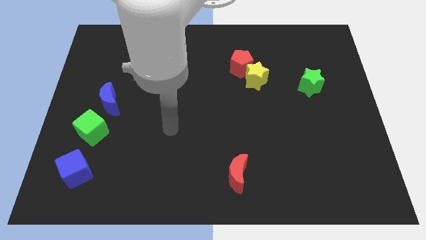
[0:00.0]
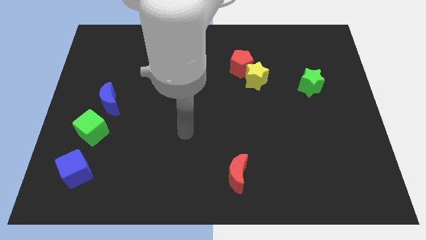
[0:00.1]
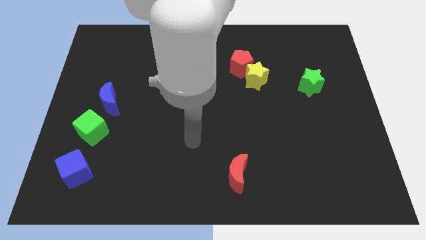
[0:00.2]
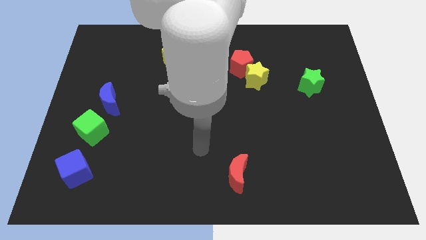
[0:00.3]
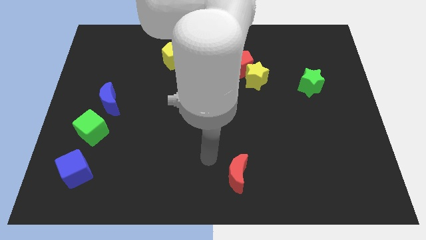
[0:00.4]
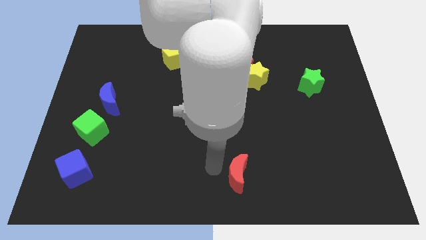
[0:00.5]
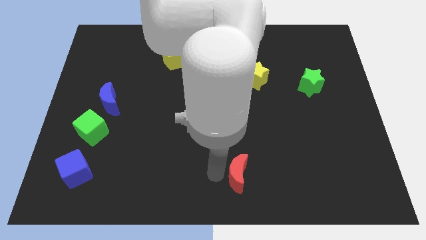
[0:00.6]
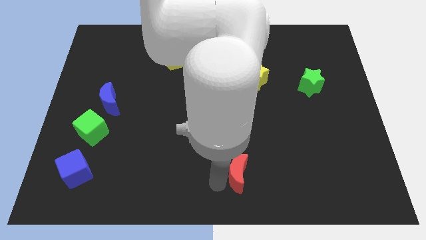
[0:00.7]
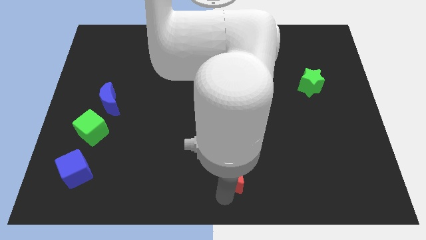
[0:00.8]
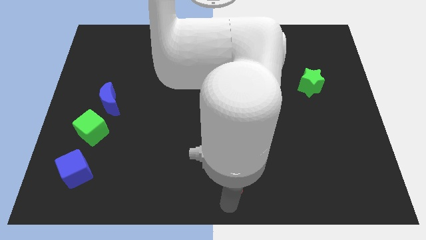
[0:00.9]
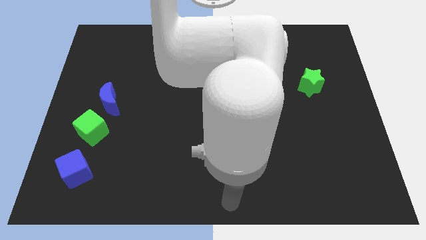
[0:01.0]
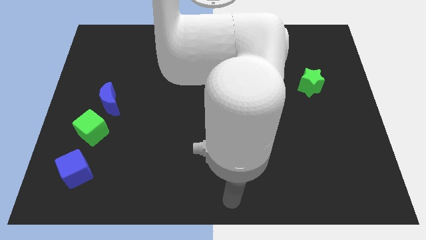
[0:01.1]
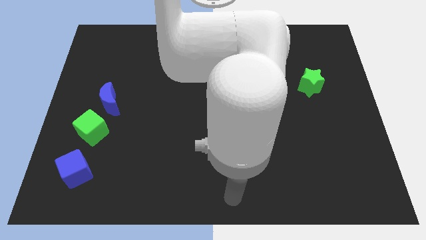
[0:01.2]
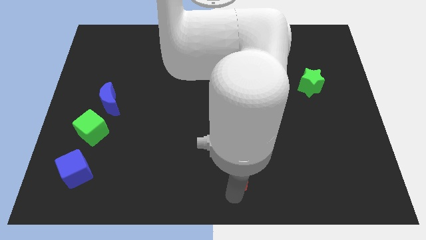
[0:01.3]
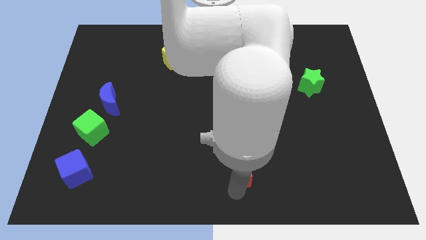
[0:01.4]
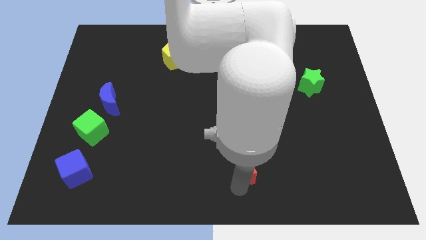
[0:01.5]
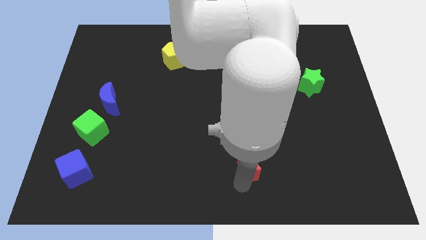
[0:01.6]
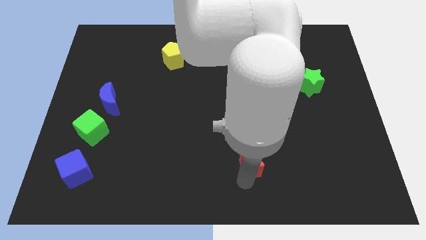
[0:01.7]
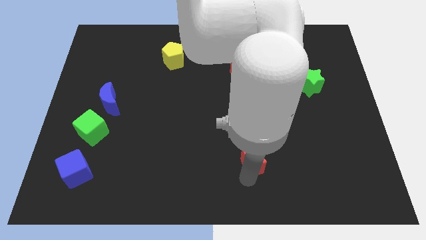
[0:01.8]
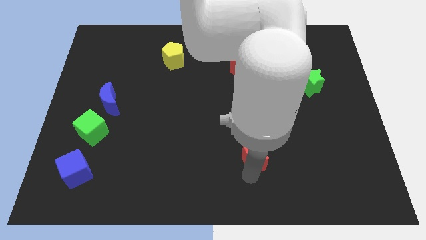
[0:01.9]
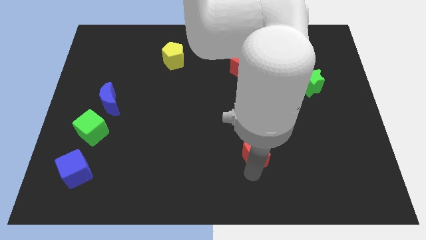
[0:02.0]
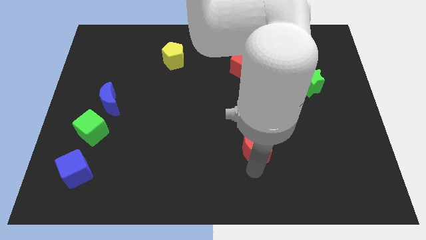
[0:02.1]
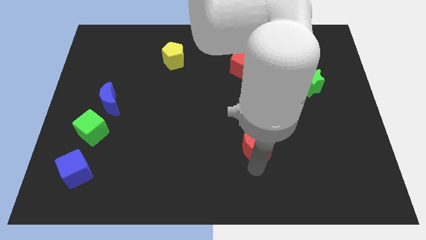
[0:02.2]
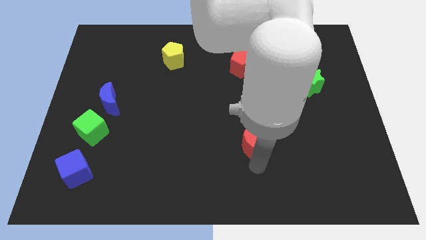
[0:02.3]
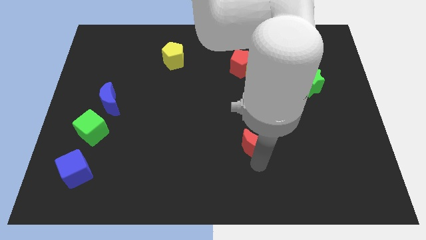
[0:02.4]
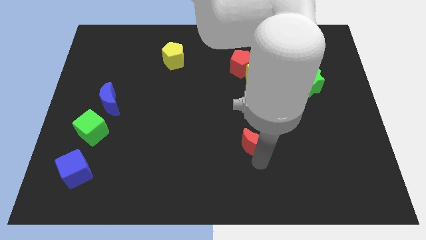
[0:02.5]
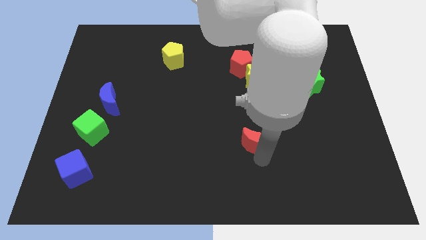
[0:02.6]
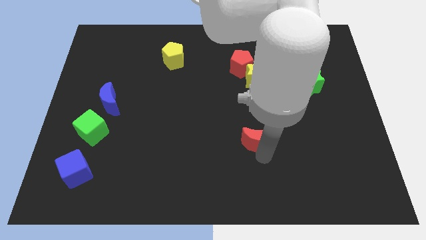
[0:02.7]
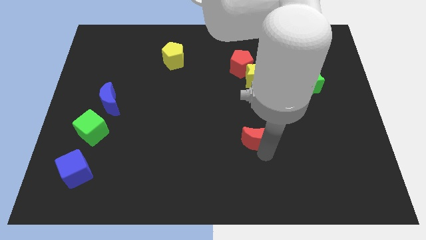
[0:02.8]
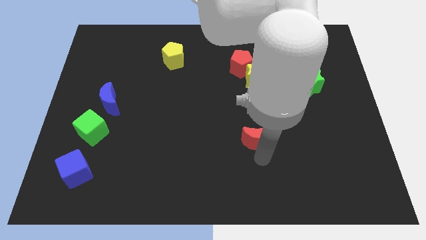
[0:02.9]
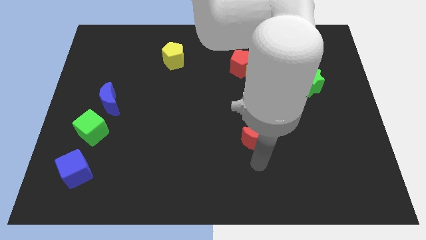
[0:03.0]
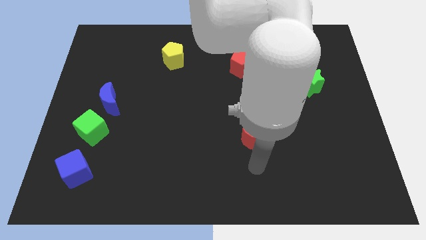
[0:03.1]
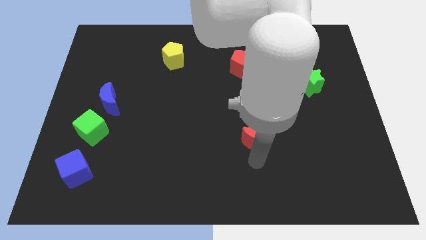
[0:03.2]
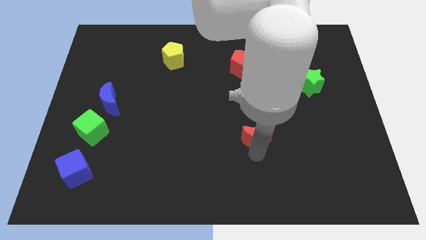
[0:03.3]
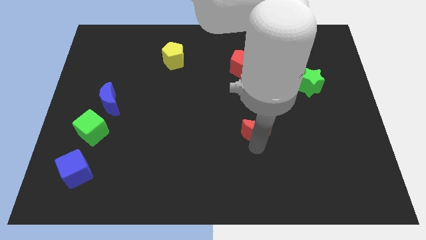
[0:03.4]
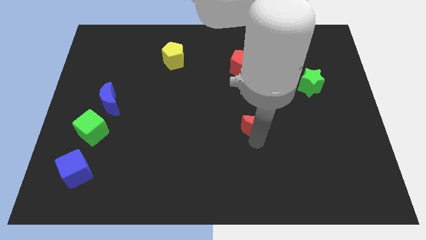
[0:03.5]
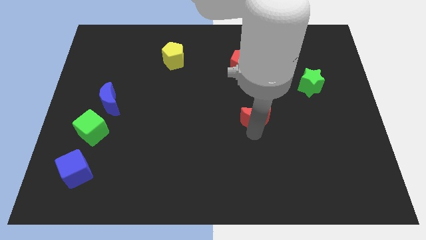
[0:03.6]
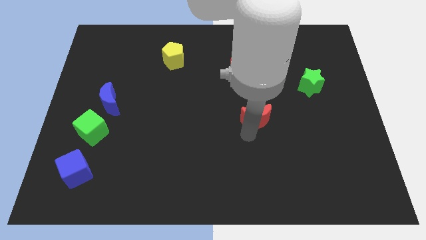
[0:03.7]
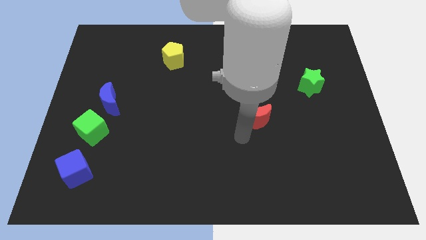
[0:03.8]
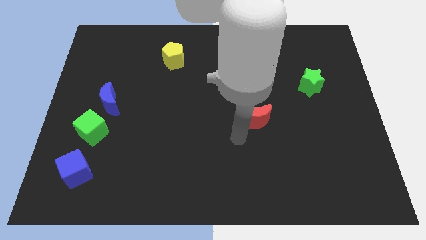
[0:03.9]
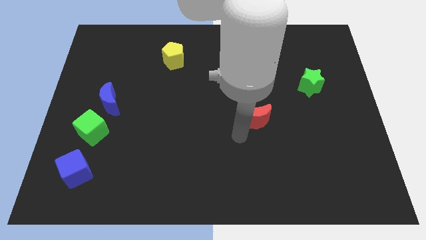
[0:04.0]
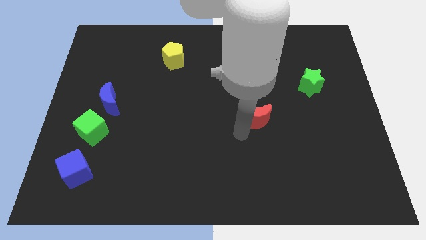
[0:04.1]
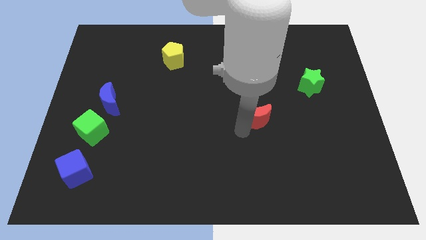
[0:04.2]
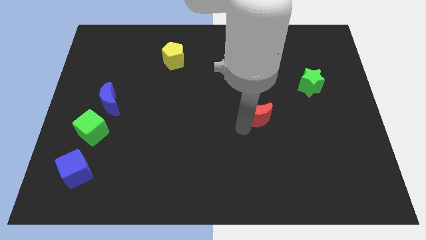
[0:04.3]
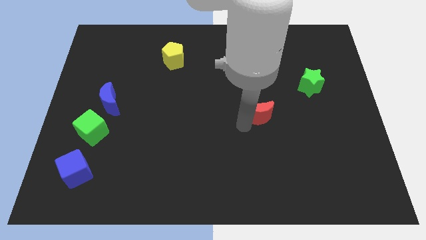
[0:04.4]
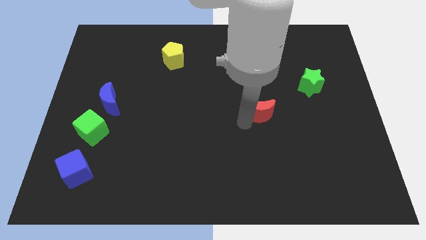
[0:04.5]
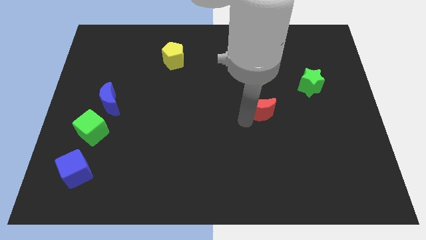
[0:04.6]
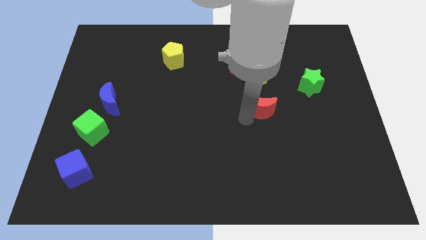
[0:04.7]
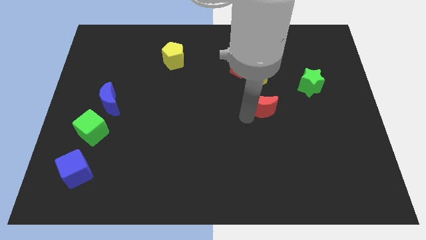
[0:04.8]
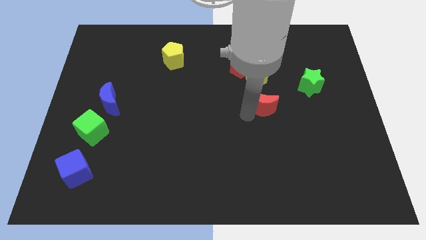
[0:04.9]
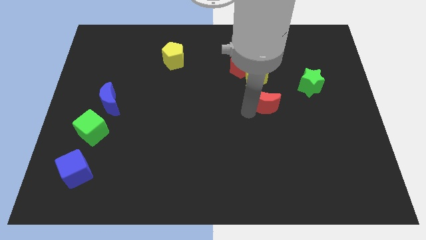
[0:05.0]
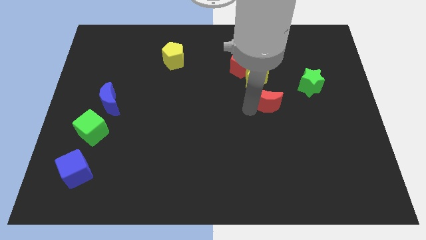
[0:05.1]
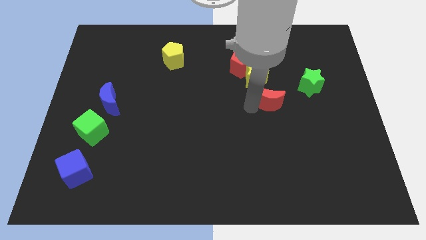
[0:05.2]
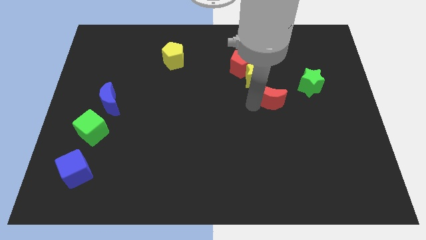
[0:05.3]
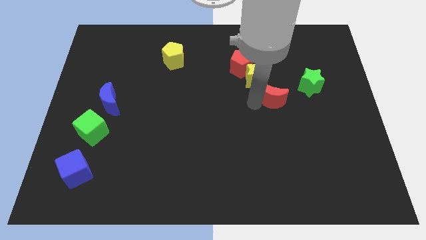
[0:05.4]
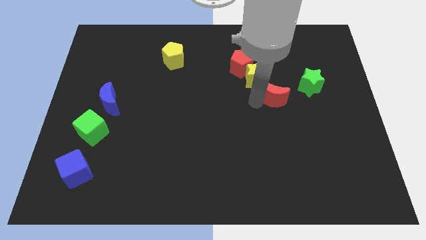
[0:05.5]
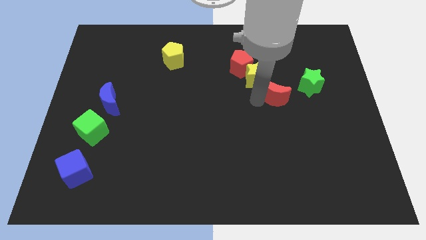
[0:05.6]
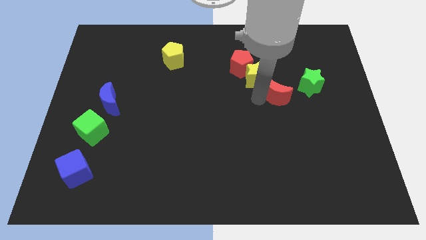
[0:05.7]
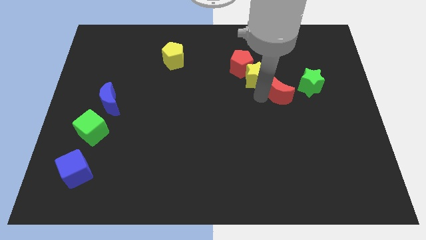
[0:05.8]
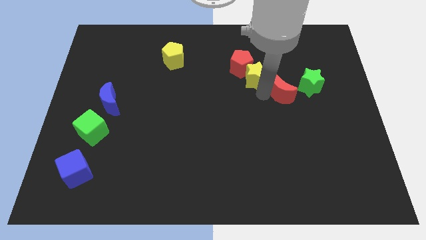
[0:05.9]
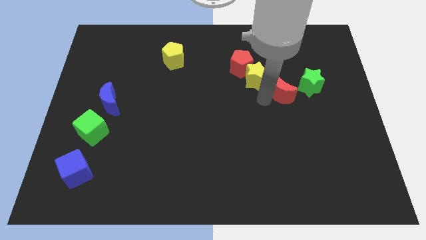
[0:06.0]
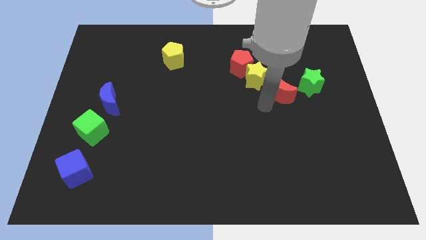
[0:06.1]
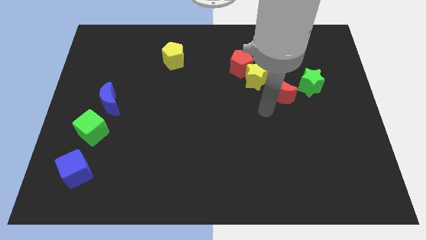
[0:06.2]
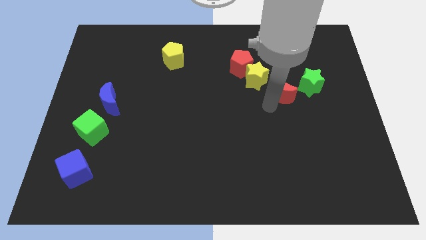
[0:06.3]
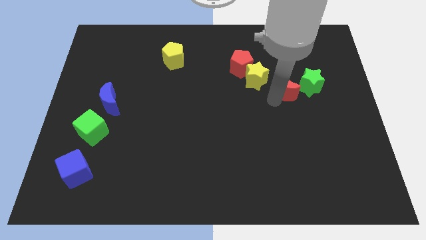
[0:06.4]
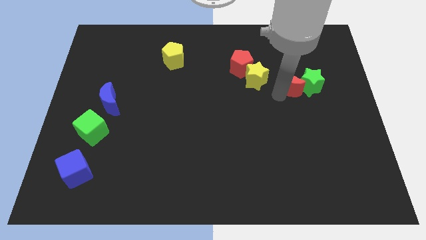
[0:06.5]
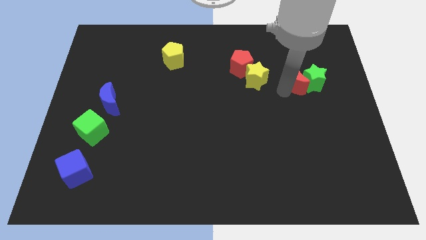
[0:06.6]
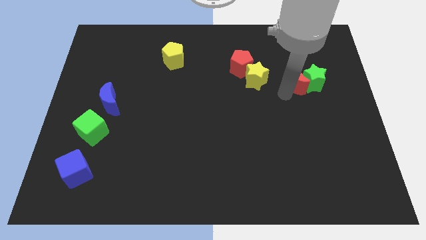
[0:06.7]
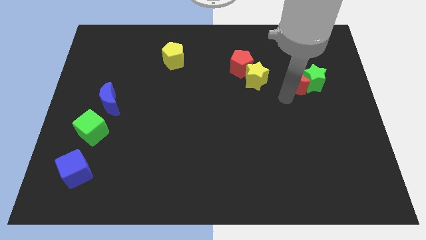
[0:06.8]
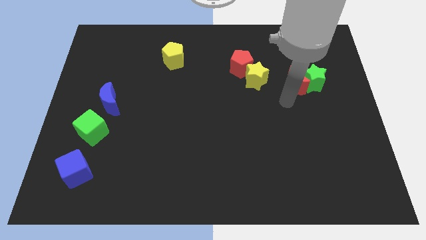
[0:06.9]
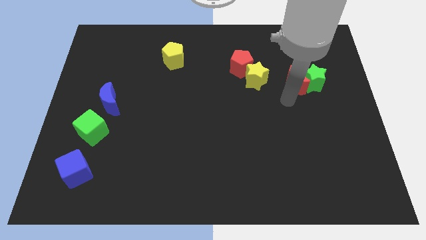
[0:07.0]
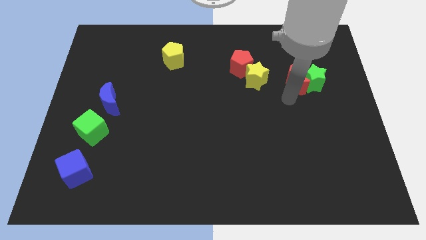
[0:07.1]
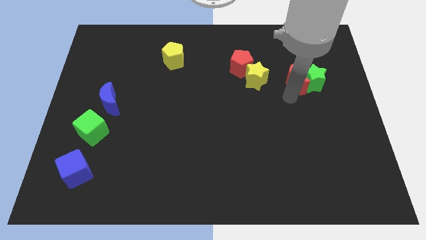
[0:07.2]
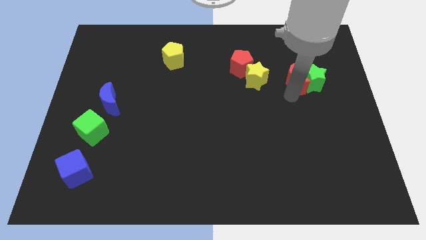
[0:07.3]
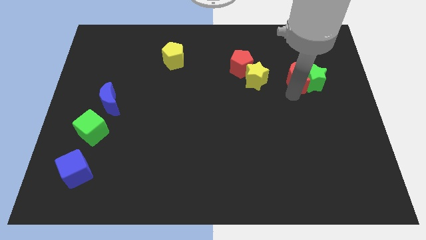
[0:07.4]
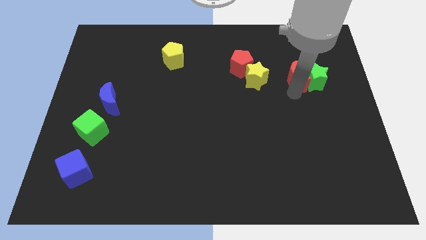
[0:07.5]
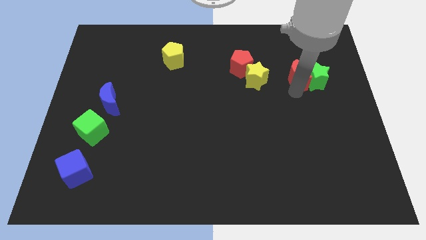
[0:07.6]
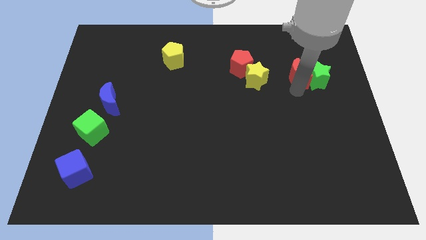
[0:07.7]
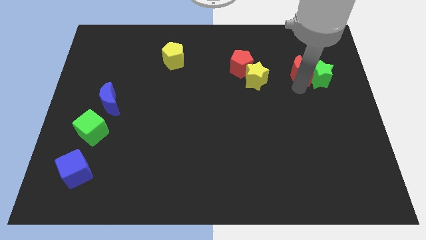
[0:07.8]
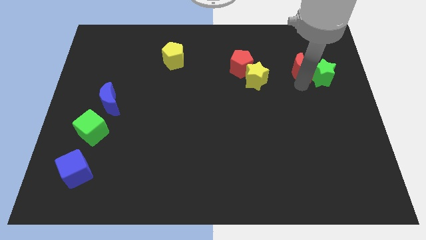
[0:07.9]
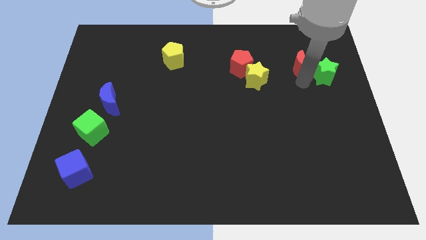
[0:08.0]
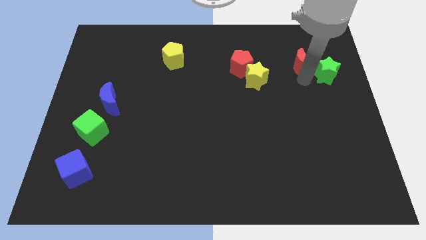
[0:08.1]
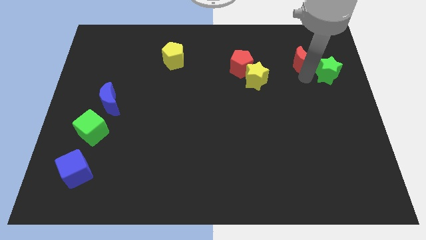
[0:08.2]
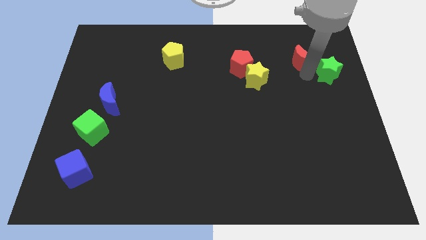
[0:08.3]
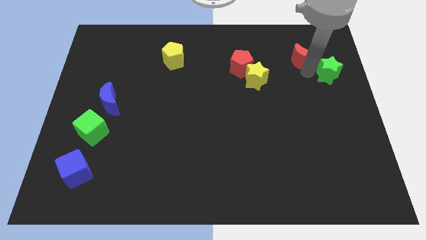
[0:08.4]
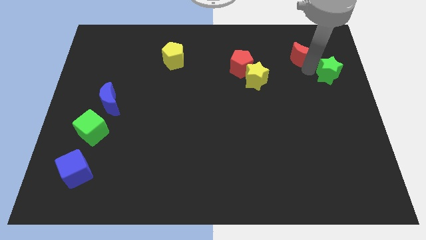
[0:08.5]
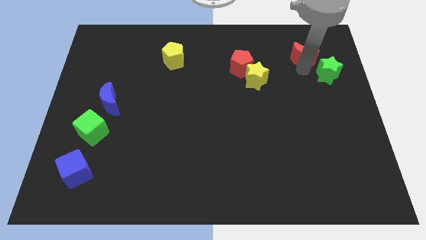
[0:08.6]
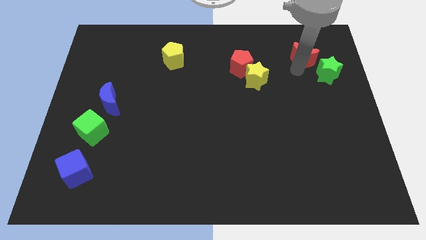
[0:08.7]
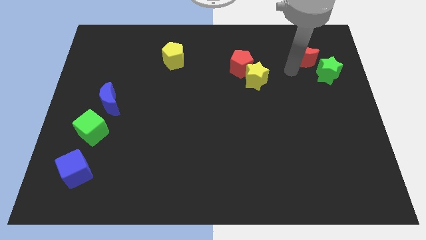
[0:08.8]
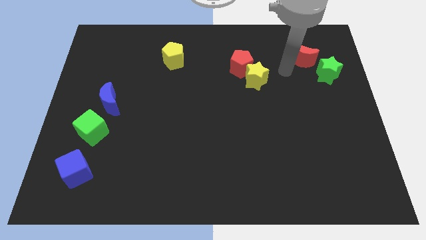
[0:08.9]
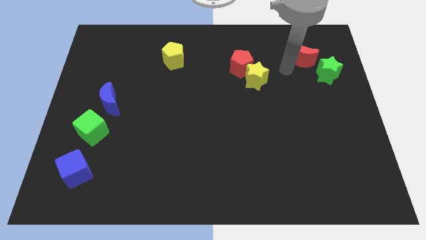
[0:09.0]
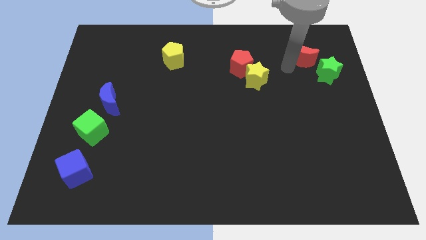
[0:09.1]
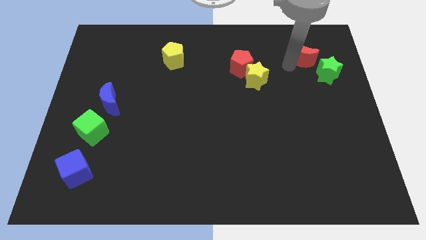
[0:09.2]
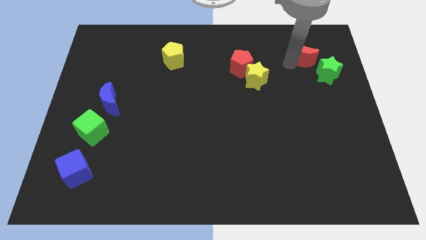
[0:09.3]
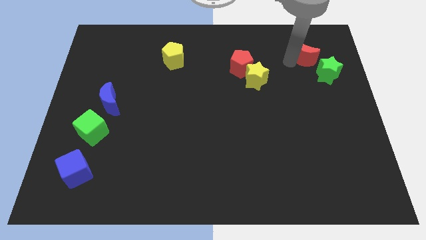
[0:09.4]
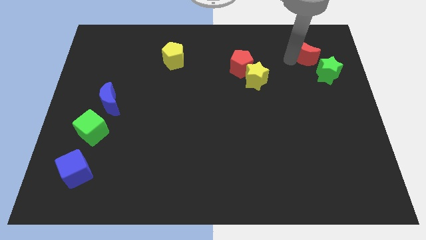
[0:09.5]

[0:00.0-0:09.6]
slide the red moon to the top of the green star
